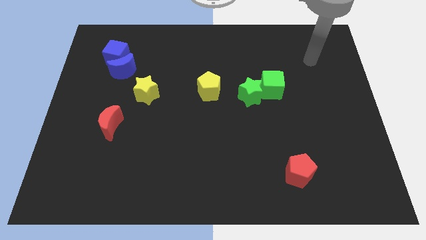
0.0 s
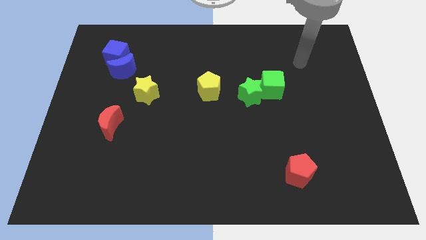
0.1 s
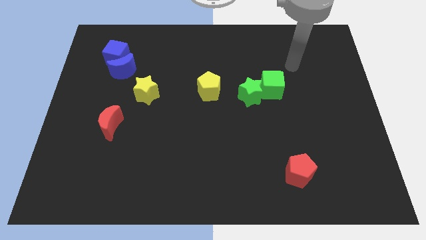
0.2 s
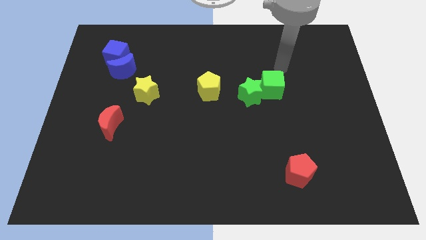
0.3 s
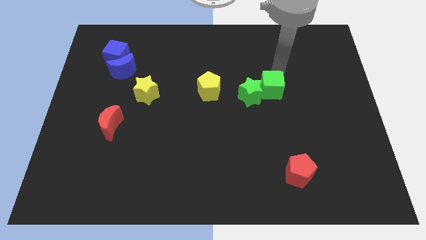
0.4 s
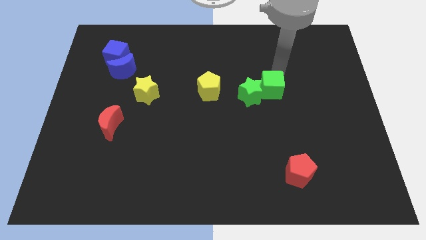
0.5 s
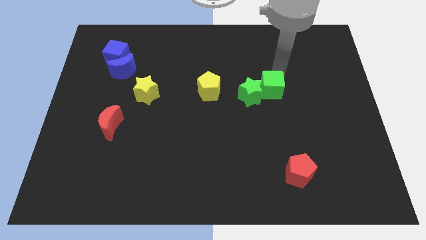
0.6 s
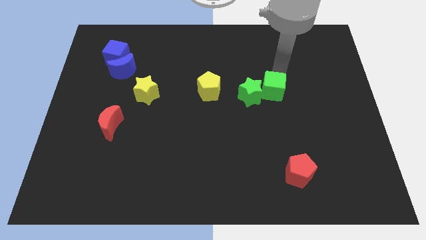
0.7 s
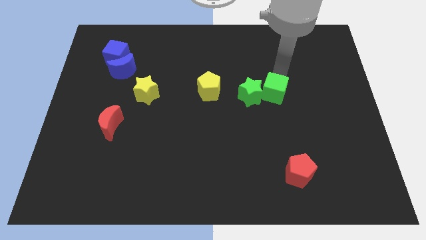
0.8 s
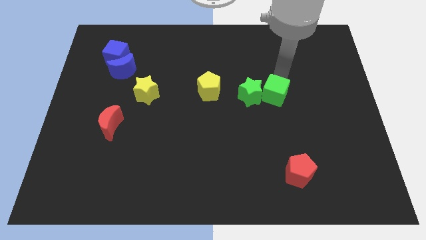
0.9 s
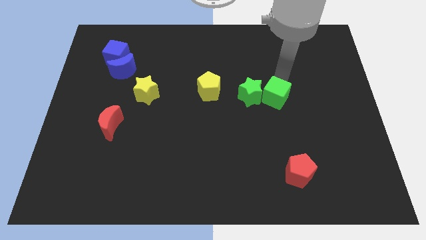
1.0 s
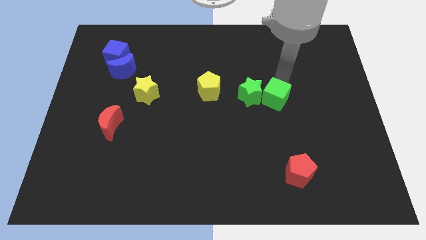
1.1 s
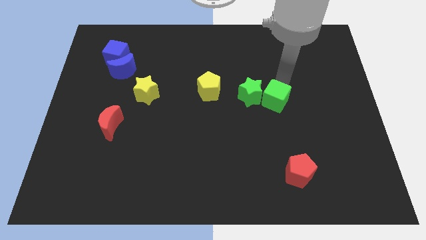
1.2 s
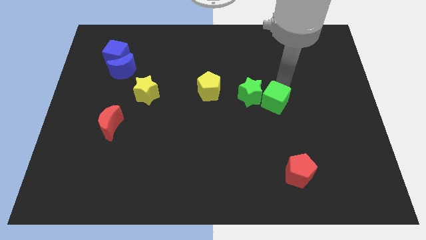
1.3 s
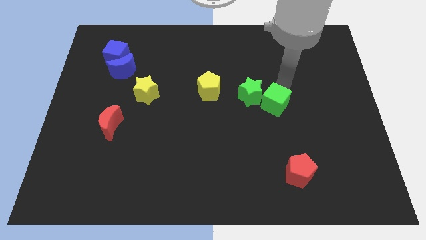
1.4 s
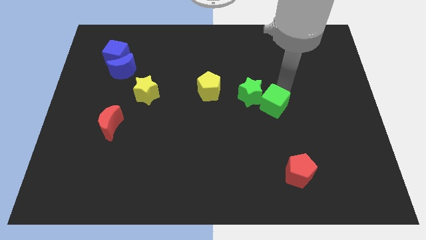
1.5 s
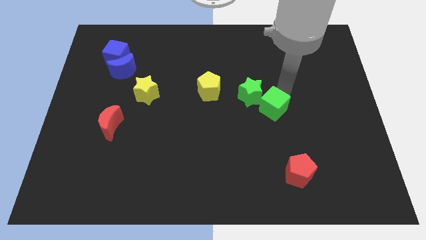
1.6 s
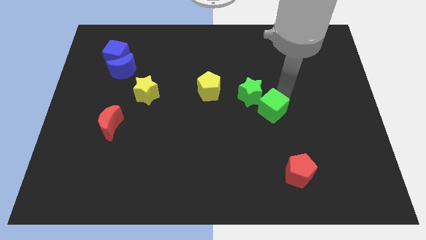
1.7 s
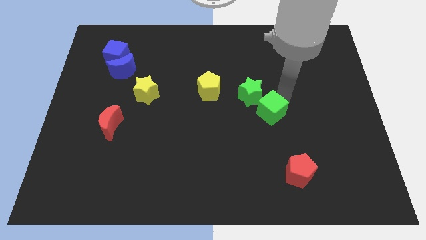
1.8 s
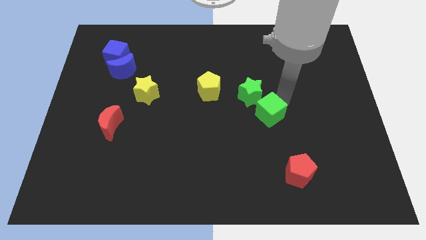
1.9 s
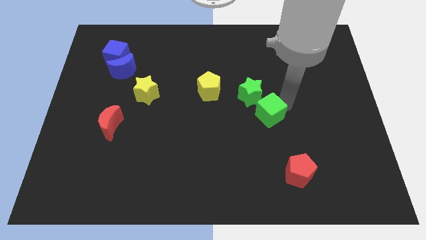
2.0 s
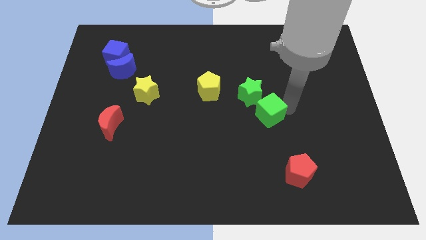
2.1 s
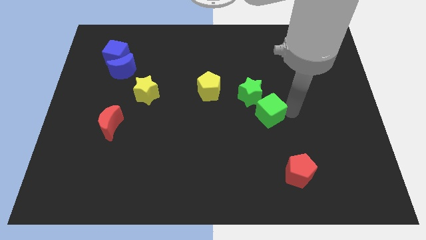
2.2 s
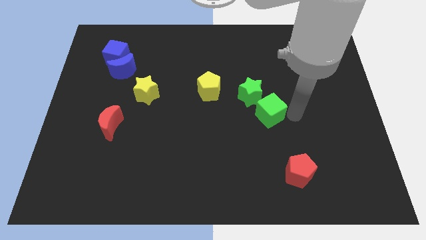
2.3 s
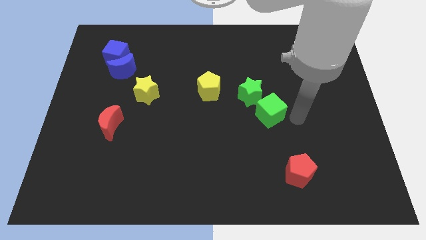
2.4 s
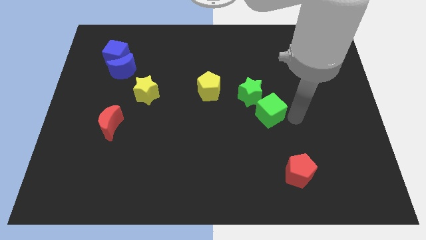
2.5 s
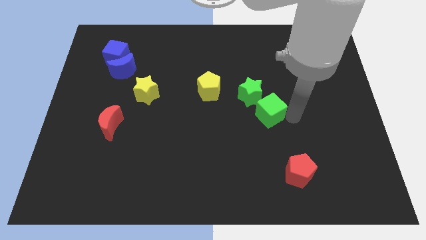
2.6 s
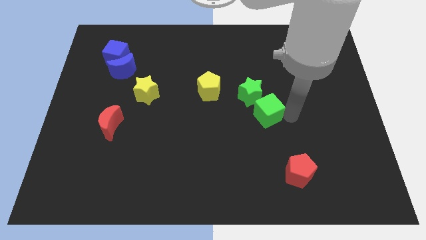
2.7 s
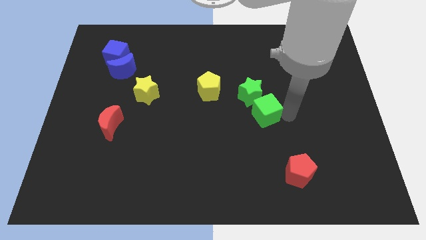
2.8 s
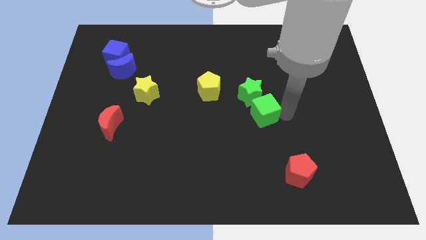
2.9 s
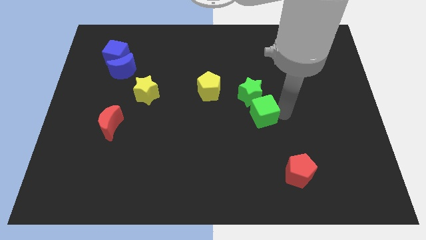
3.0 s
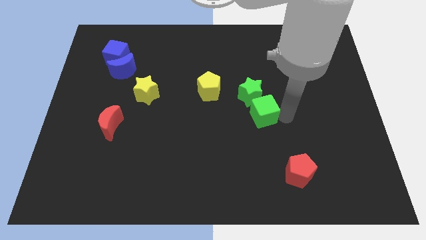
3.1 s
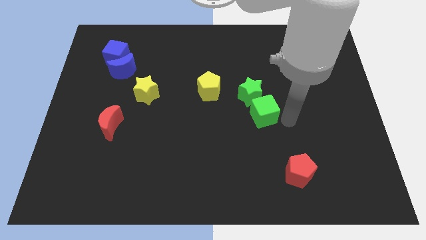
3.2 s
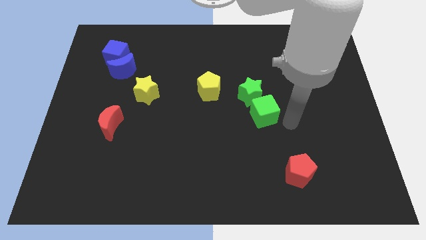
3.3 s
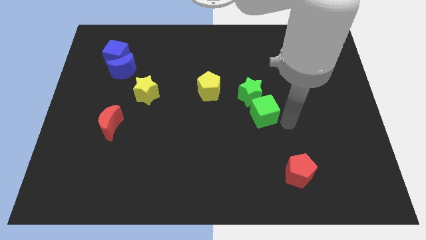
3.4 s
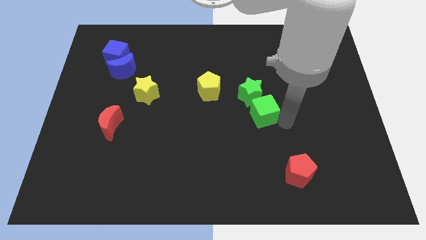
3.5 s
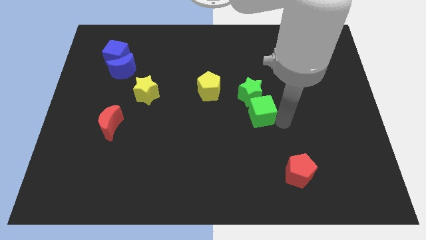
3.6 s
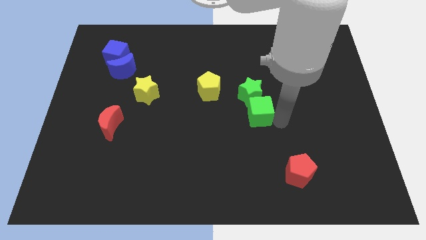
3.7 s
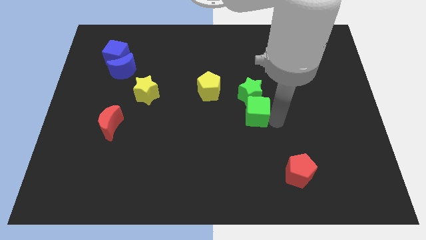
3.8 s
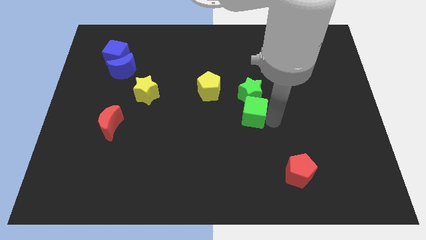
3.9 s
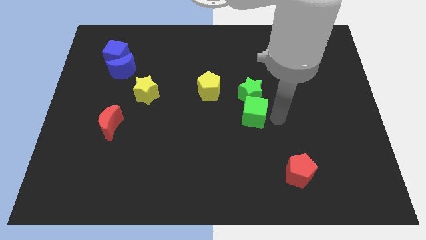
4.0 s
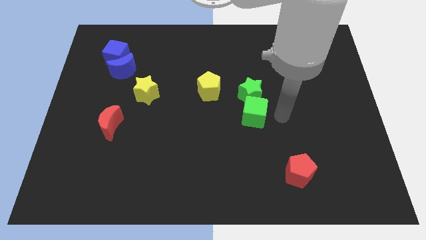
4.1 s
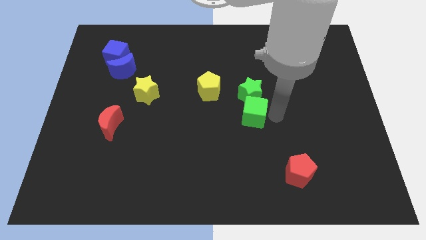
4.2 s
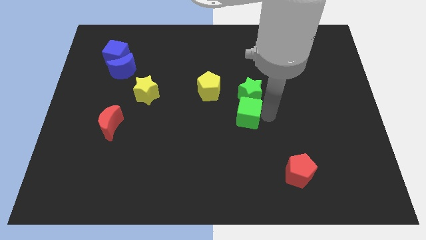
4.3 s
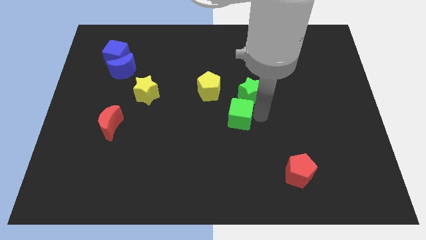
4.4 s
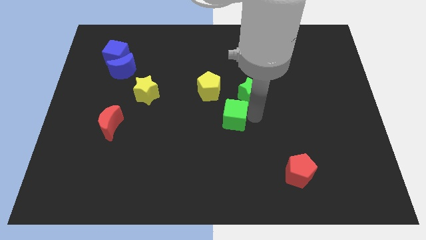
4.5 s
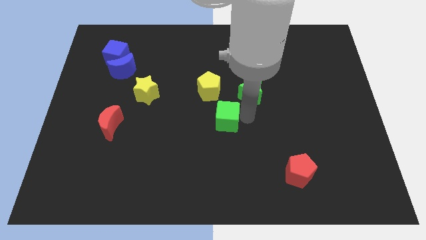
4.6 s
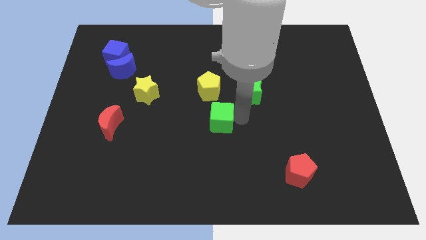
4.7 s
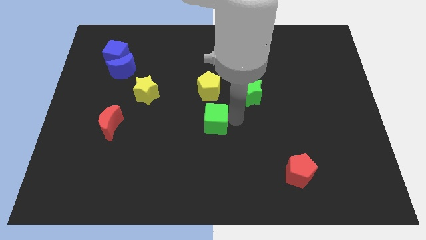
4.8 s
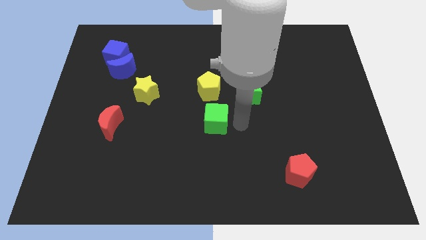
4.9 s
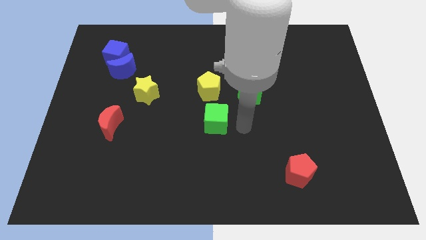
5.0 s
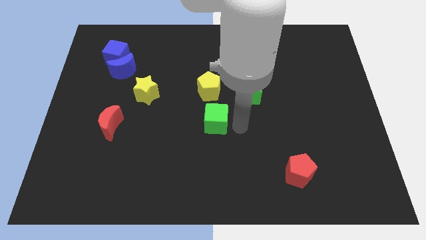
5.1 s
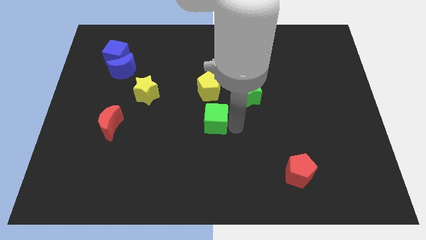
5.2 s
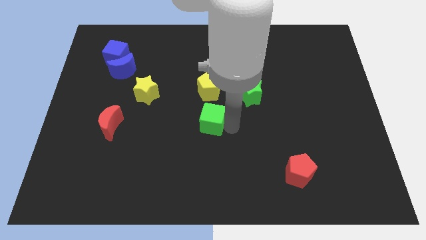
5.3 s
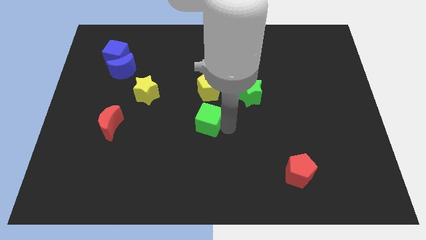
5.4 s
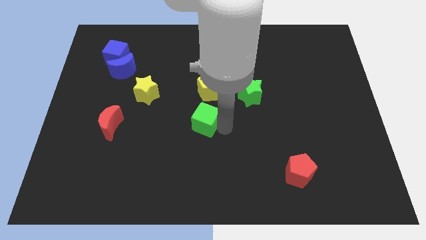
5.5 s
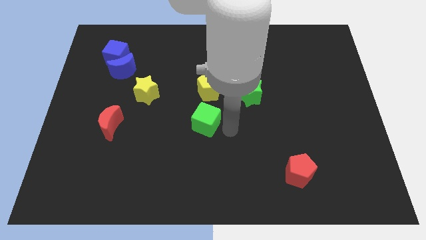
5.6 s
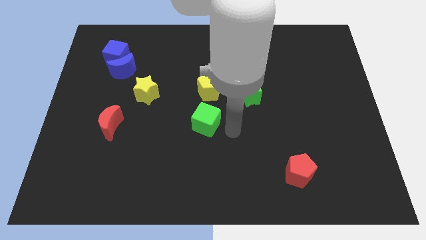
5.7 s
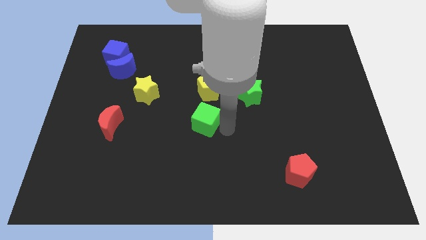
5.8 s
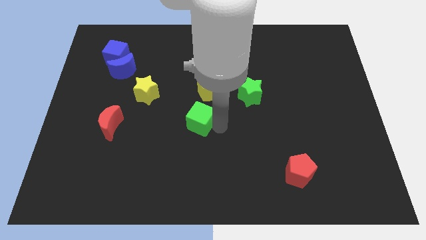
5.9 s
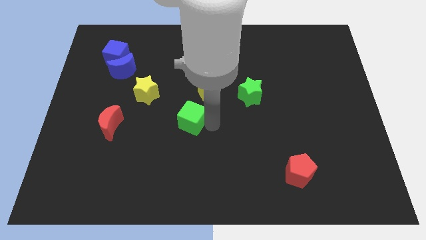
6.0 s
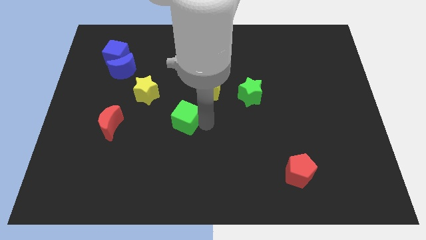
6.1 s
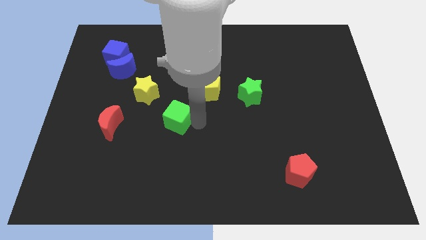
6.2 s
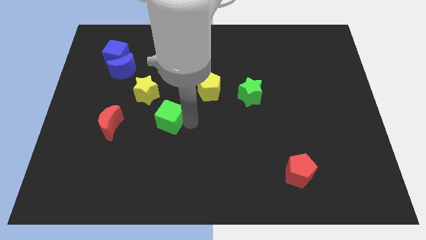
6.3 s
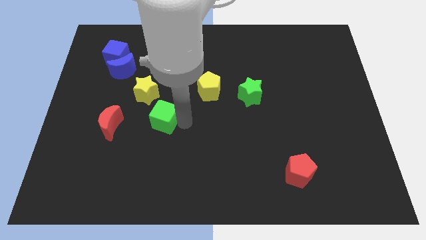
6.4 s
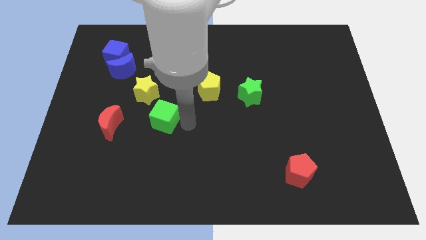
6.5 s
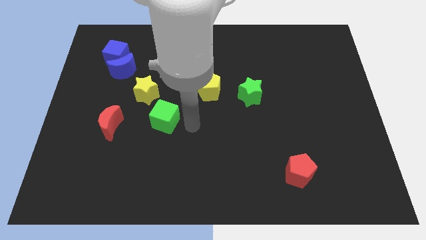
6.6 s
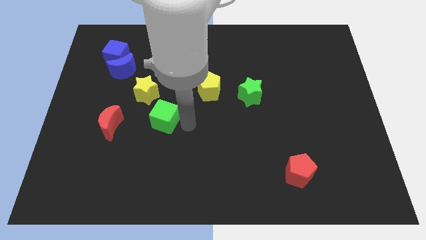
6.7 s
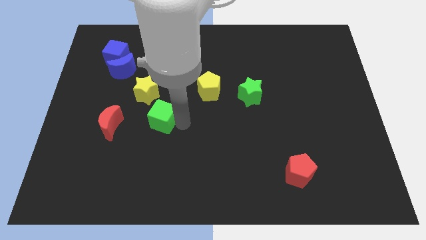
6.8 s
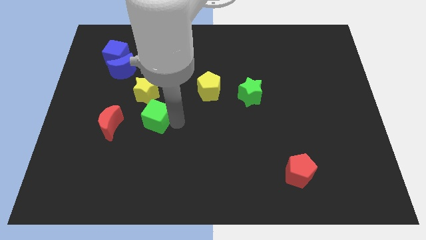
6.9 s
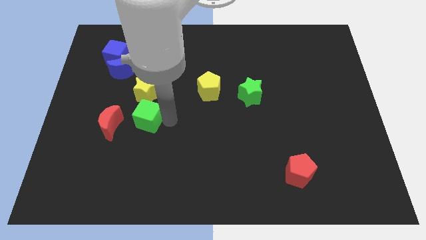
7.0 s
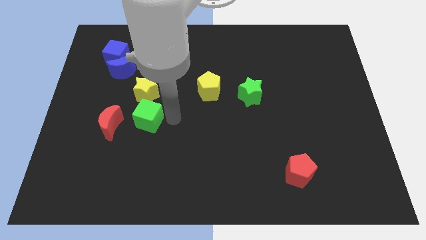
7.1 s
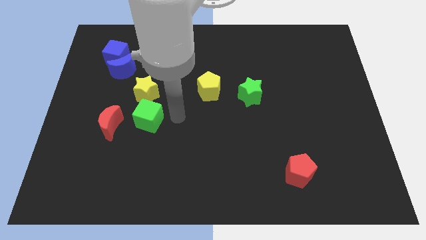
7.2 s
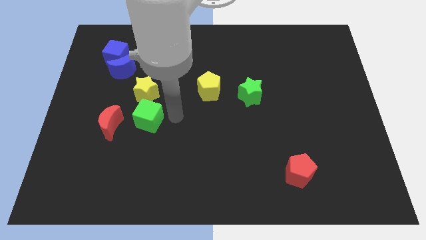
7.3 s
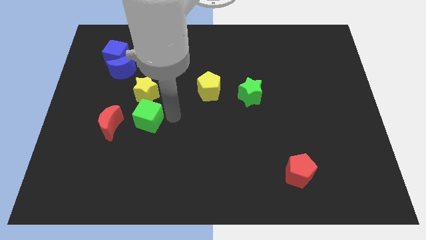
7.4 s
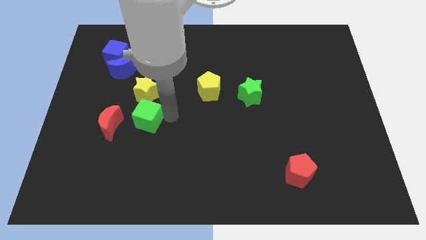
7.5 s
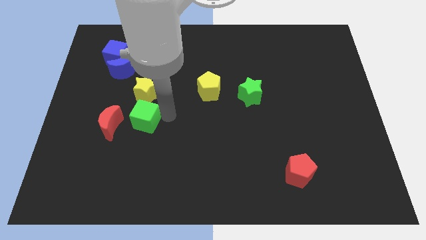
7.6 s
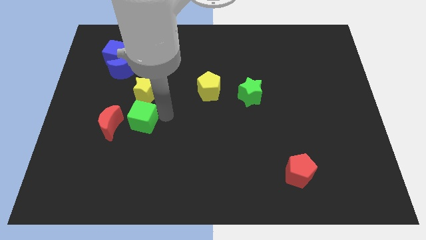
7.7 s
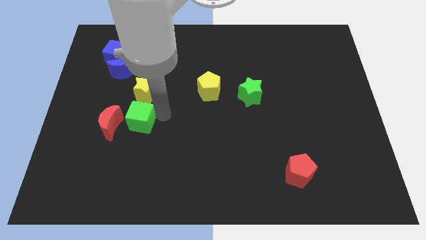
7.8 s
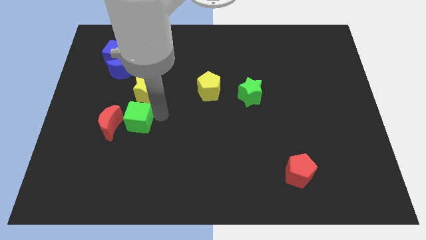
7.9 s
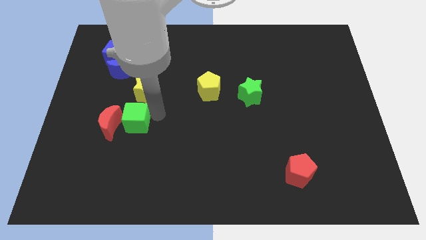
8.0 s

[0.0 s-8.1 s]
push the green cube close to the red moon
